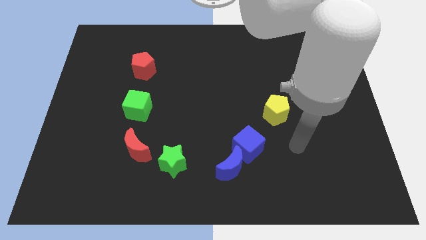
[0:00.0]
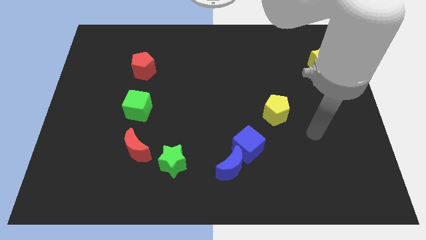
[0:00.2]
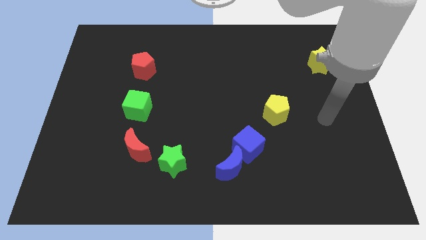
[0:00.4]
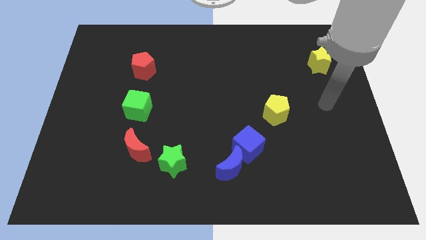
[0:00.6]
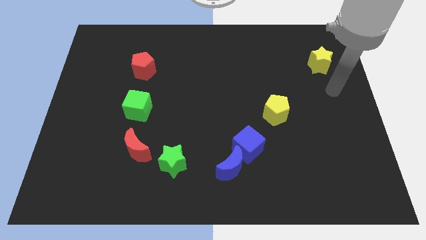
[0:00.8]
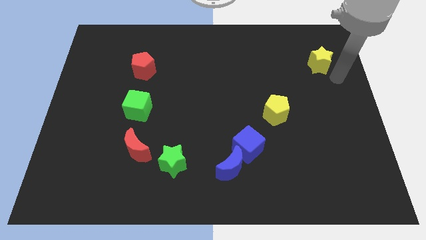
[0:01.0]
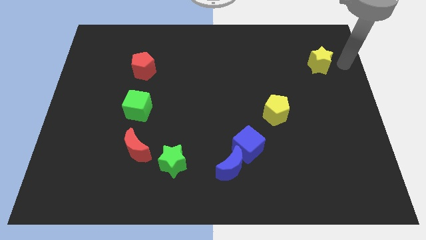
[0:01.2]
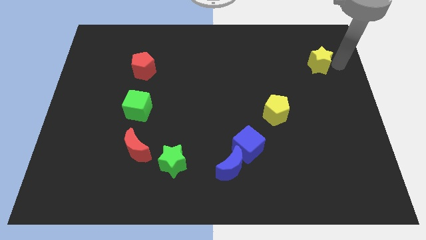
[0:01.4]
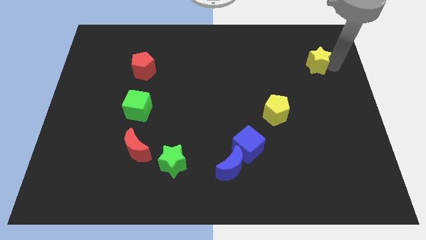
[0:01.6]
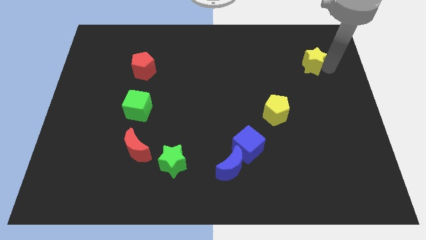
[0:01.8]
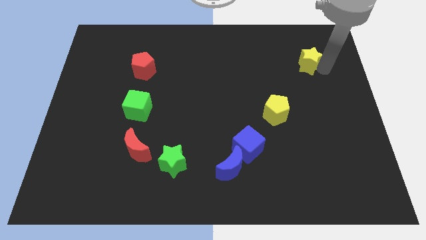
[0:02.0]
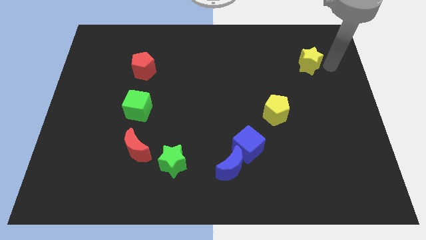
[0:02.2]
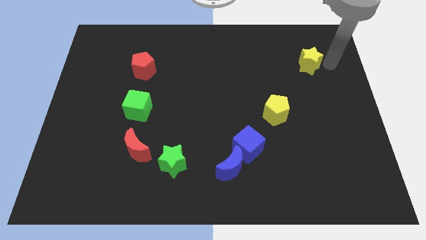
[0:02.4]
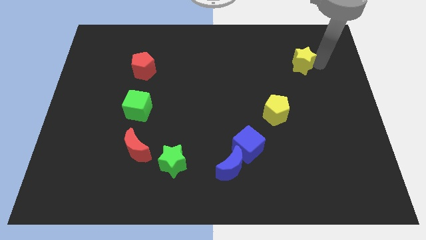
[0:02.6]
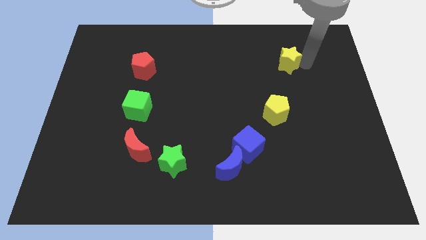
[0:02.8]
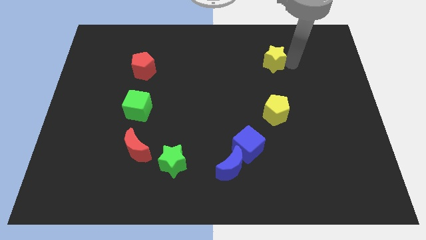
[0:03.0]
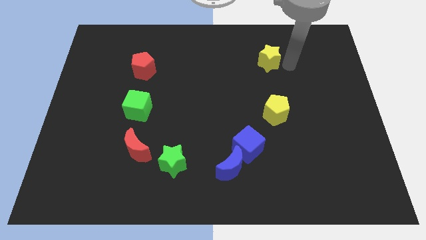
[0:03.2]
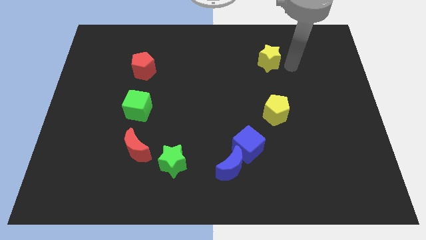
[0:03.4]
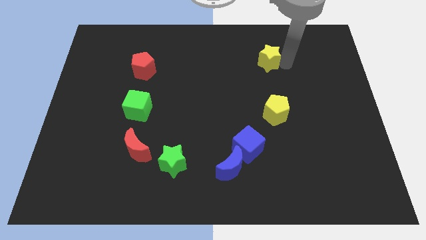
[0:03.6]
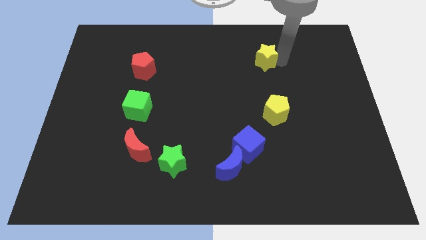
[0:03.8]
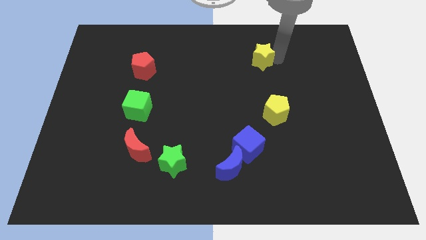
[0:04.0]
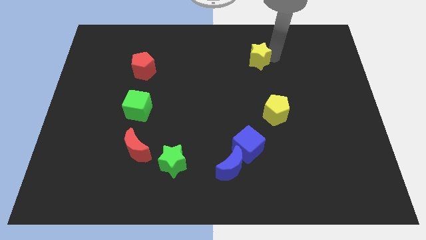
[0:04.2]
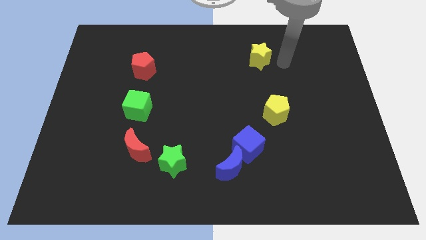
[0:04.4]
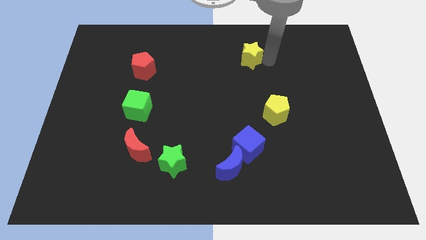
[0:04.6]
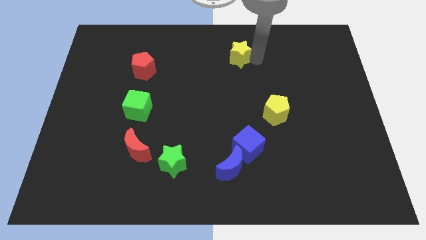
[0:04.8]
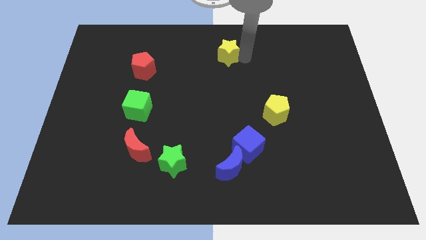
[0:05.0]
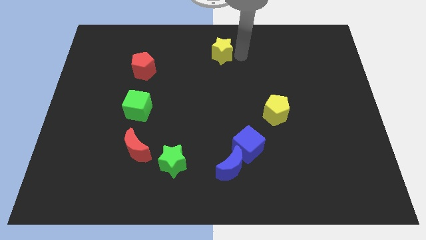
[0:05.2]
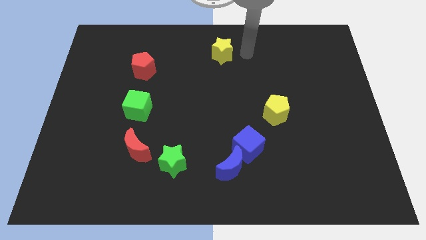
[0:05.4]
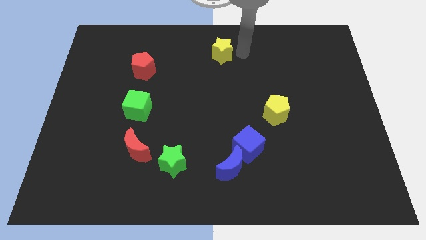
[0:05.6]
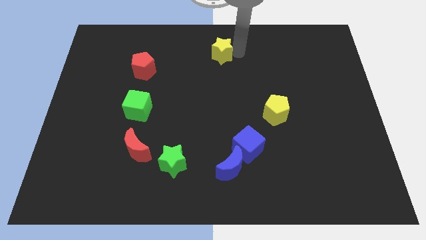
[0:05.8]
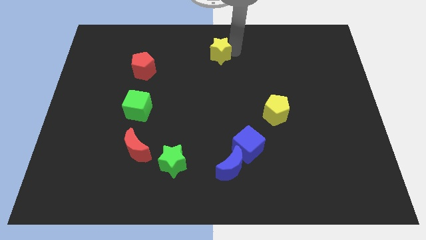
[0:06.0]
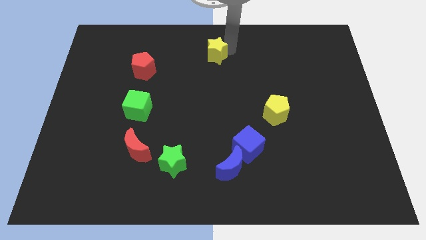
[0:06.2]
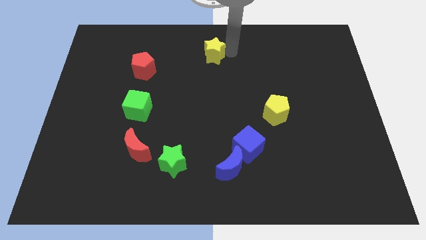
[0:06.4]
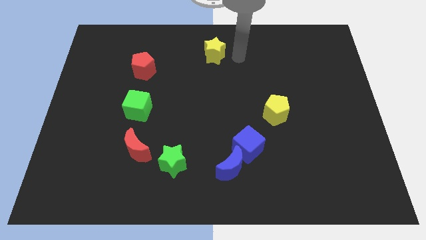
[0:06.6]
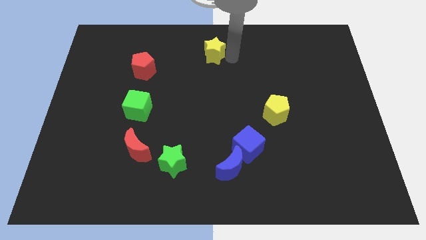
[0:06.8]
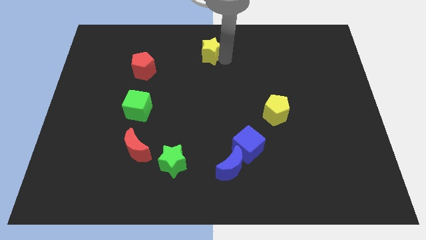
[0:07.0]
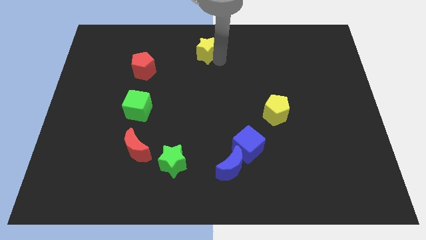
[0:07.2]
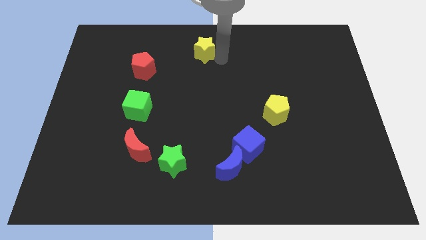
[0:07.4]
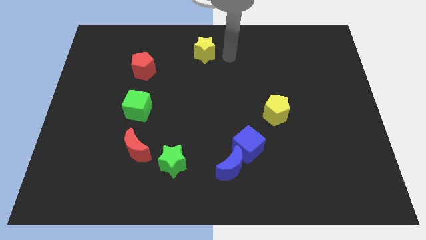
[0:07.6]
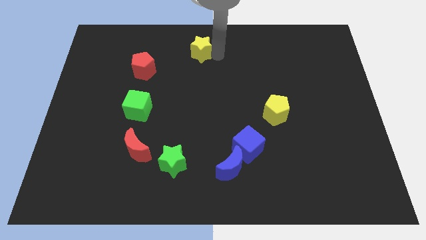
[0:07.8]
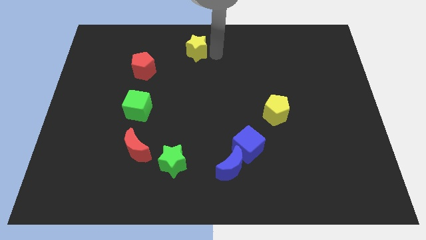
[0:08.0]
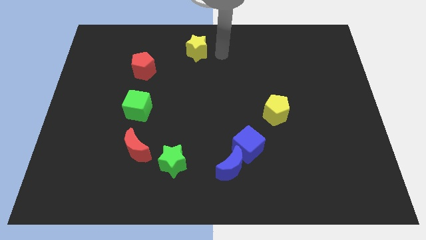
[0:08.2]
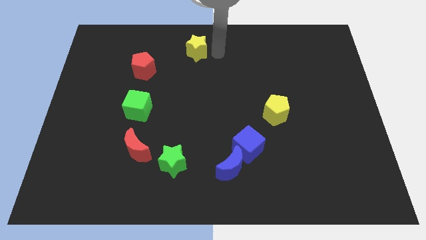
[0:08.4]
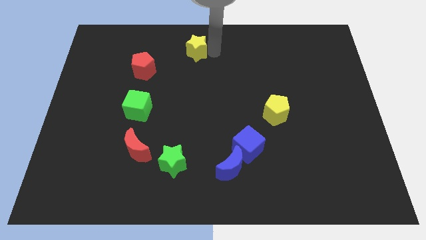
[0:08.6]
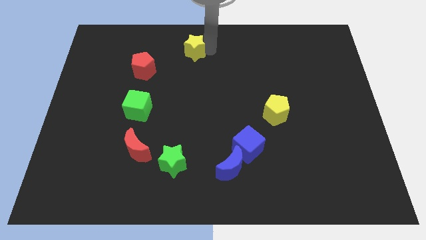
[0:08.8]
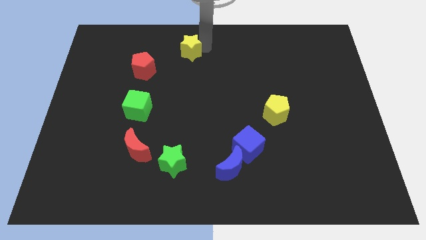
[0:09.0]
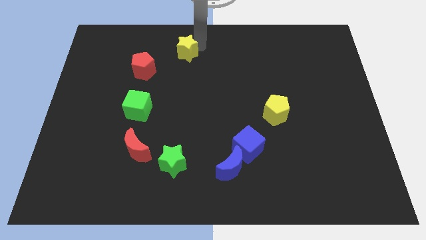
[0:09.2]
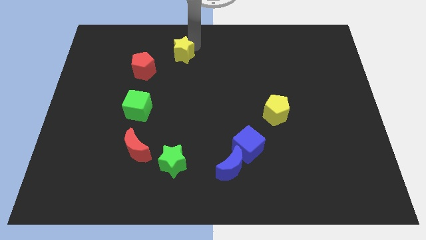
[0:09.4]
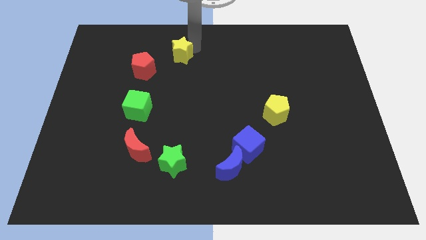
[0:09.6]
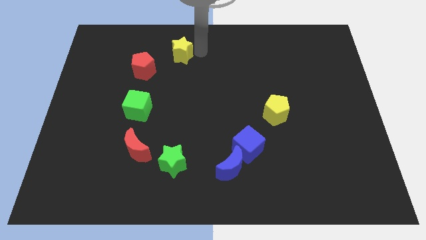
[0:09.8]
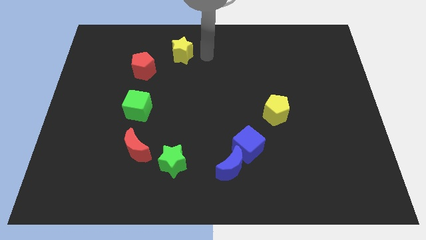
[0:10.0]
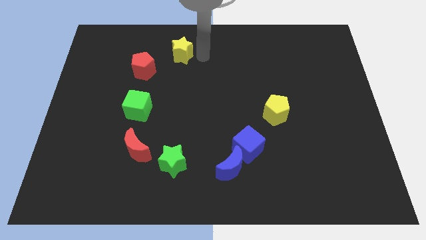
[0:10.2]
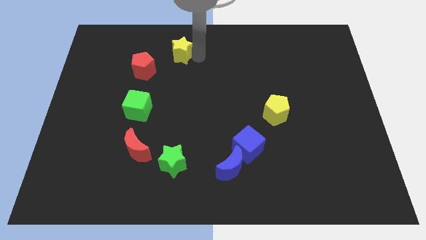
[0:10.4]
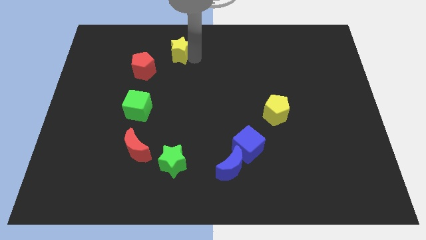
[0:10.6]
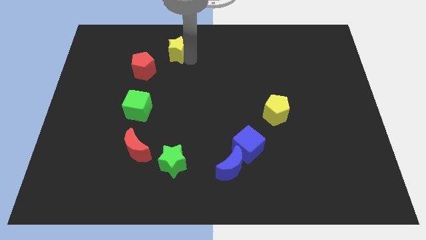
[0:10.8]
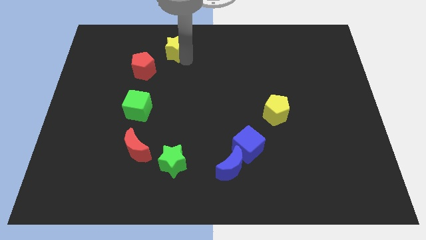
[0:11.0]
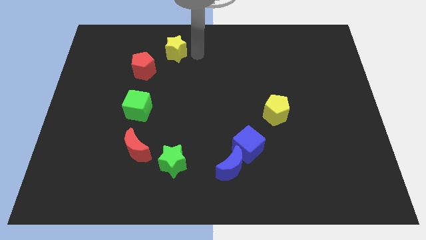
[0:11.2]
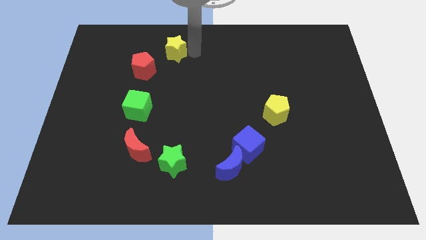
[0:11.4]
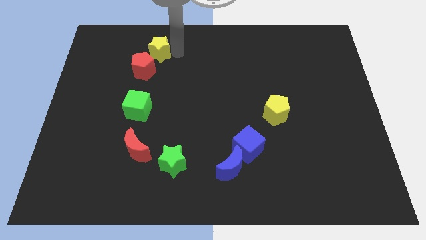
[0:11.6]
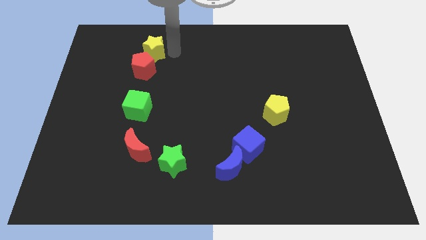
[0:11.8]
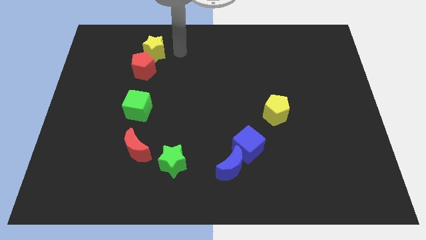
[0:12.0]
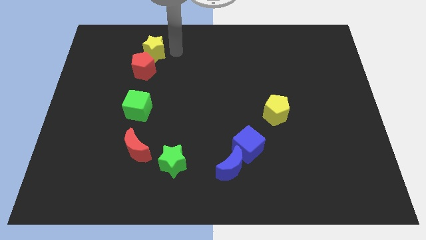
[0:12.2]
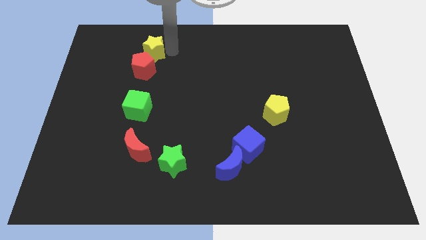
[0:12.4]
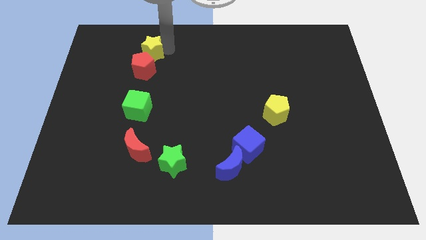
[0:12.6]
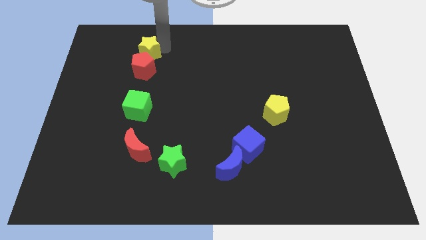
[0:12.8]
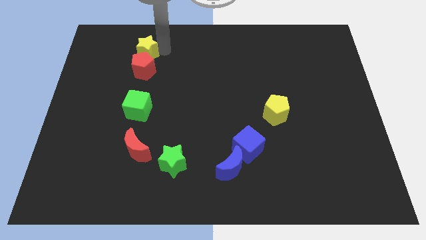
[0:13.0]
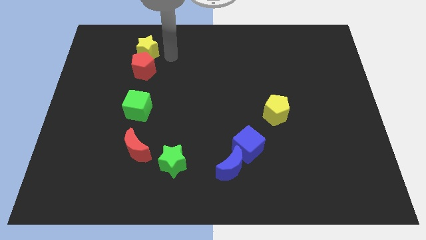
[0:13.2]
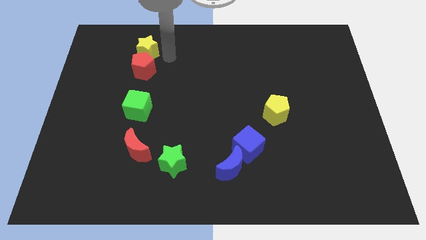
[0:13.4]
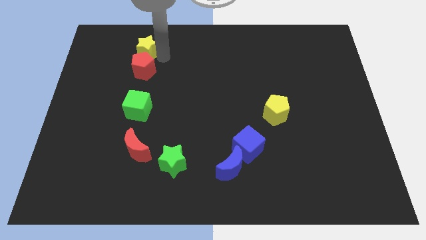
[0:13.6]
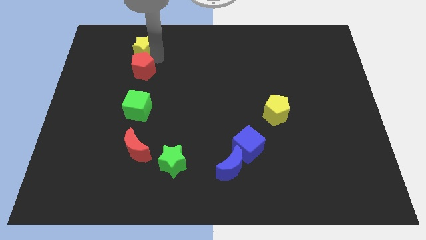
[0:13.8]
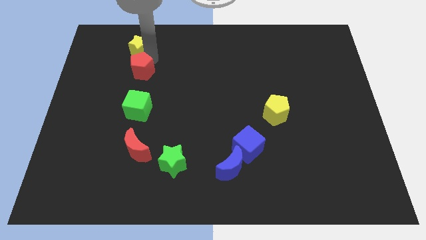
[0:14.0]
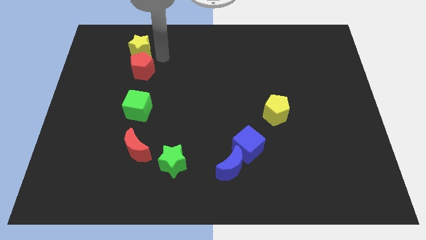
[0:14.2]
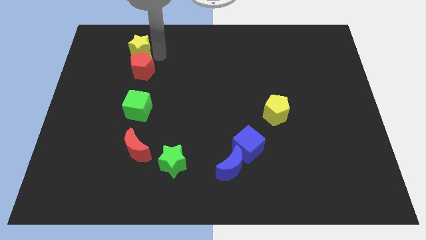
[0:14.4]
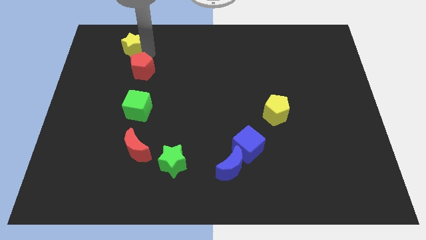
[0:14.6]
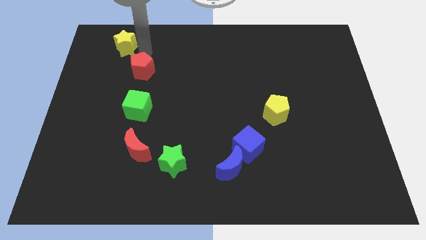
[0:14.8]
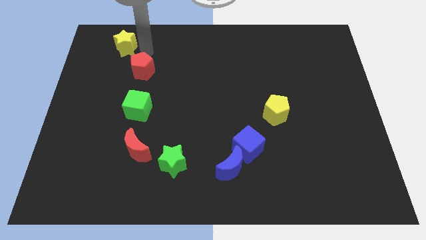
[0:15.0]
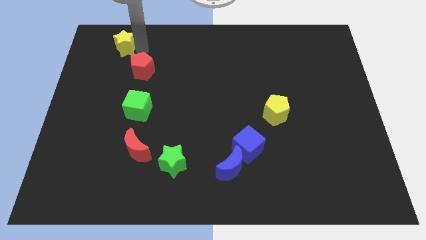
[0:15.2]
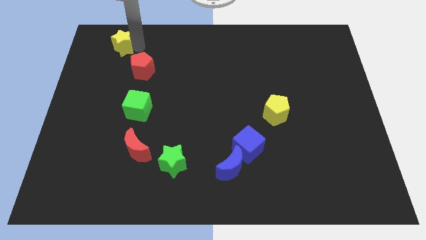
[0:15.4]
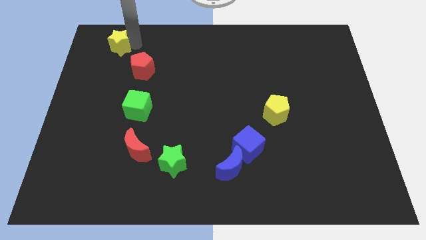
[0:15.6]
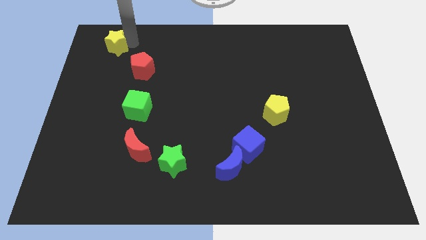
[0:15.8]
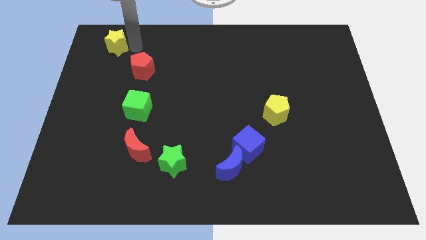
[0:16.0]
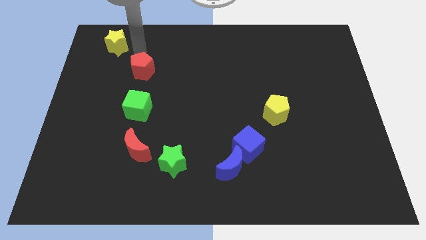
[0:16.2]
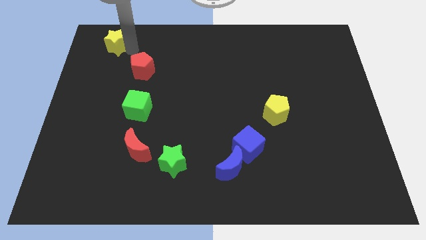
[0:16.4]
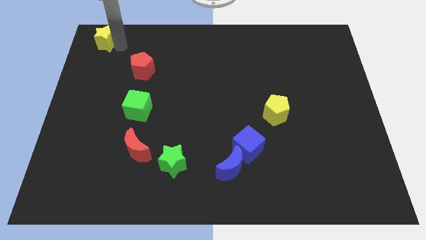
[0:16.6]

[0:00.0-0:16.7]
put the yellow star to the top left
